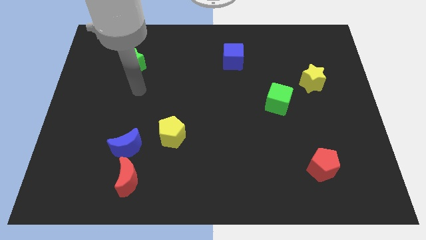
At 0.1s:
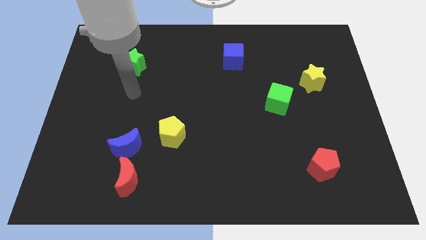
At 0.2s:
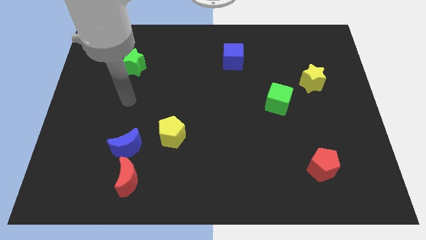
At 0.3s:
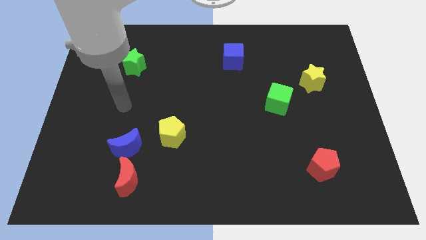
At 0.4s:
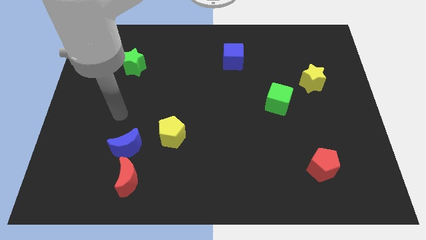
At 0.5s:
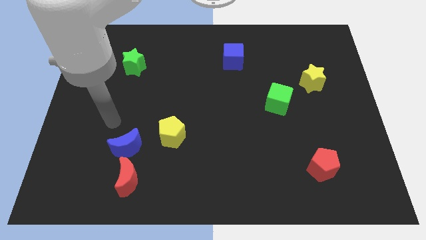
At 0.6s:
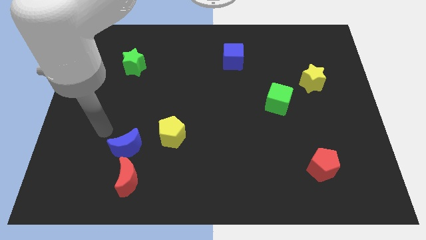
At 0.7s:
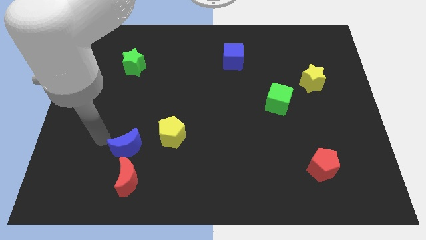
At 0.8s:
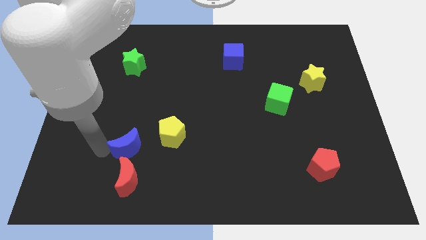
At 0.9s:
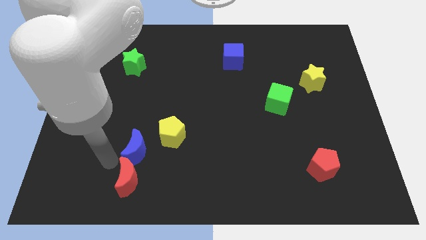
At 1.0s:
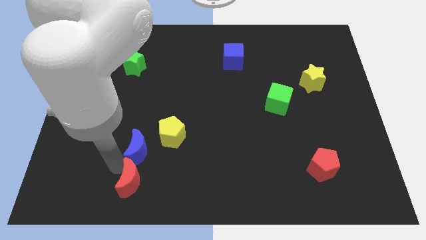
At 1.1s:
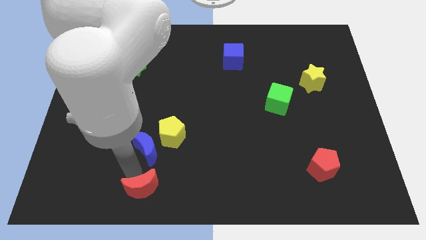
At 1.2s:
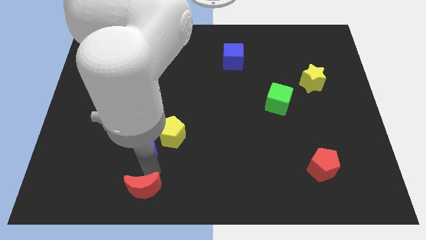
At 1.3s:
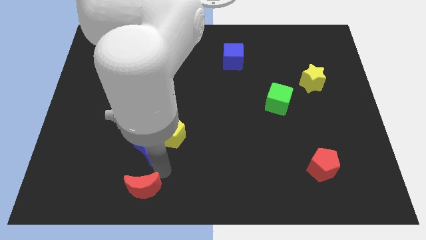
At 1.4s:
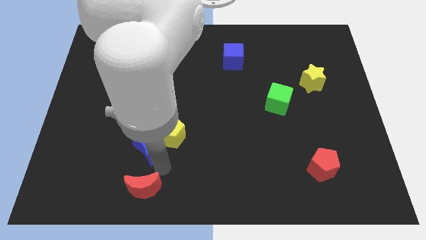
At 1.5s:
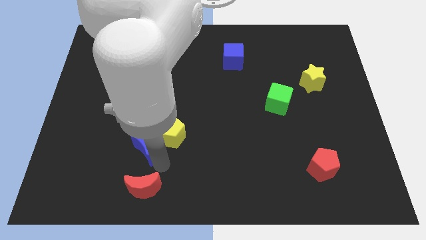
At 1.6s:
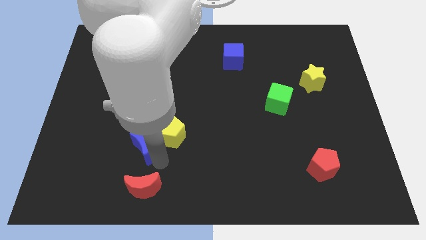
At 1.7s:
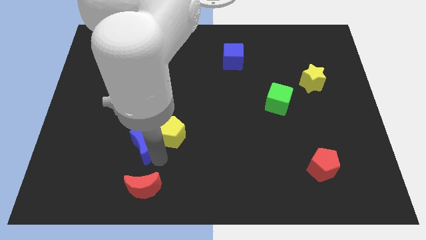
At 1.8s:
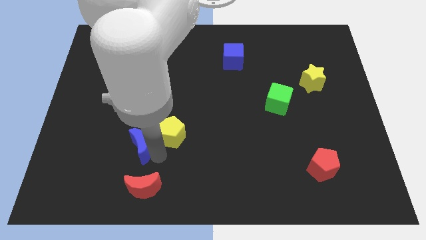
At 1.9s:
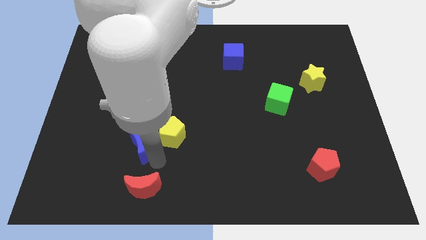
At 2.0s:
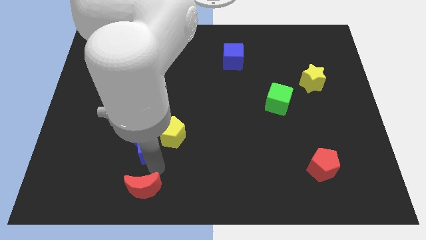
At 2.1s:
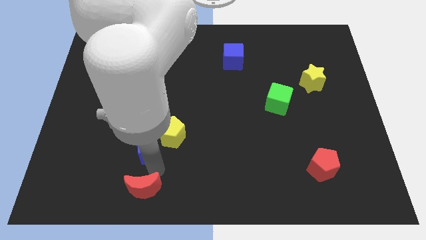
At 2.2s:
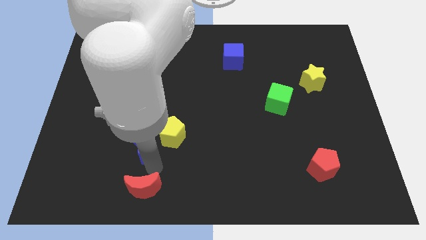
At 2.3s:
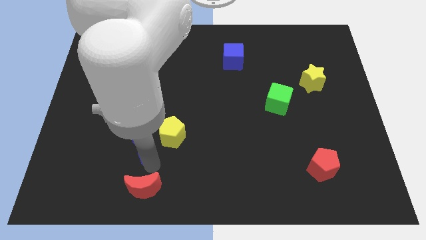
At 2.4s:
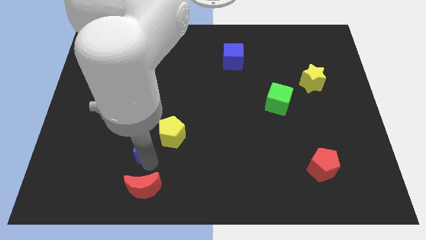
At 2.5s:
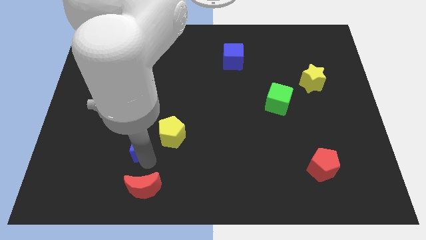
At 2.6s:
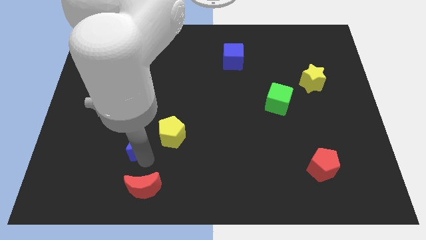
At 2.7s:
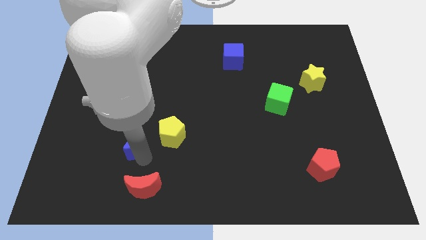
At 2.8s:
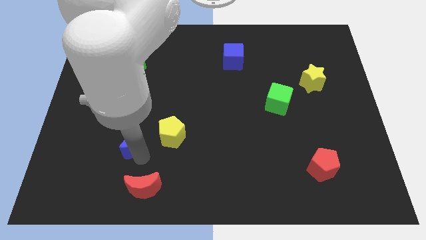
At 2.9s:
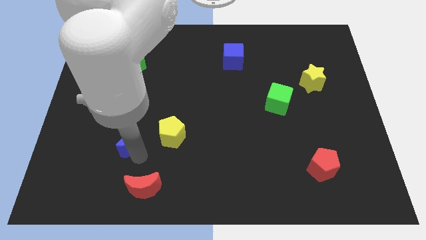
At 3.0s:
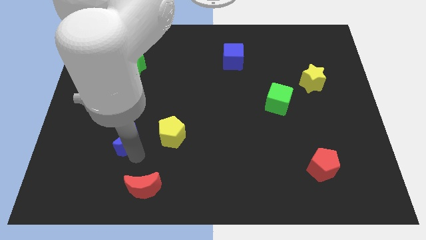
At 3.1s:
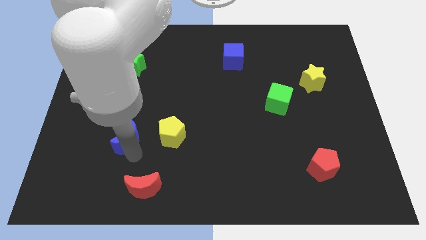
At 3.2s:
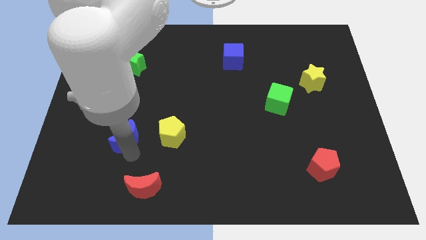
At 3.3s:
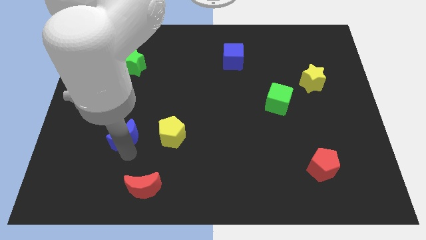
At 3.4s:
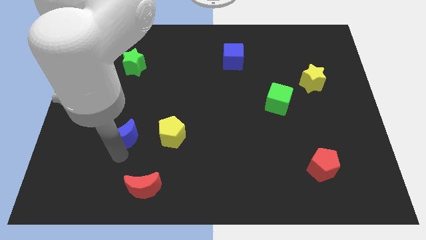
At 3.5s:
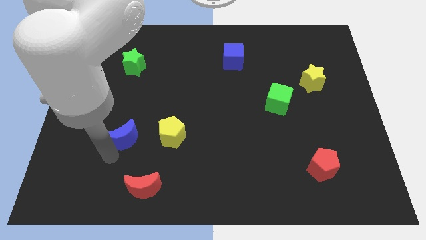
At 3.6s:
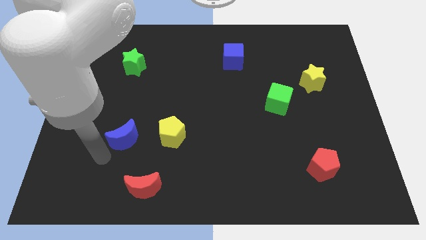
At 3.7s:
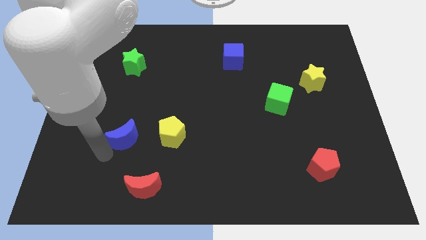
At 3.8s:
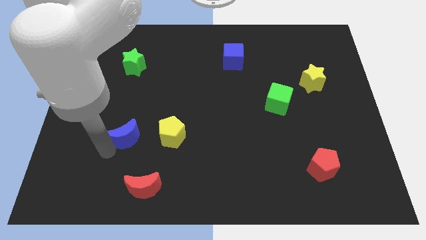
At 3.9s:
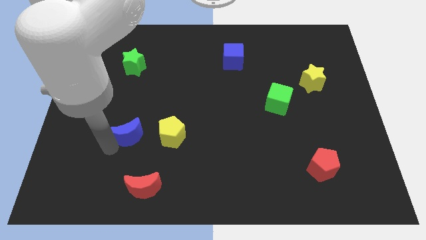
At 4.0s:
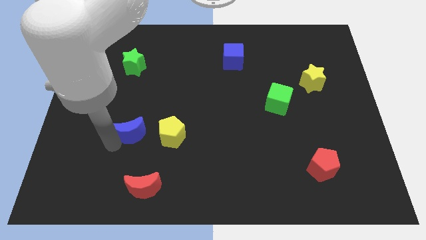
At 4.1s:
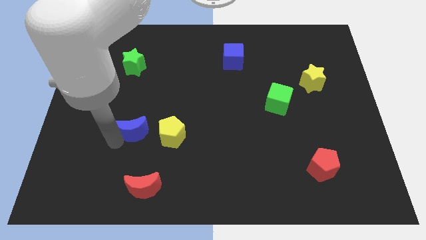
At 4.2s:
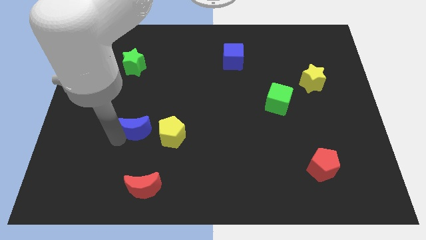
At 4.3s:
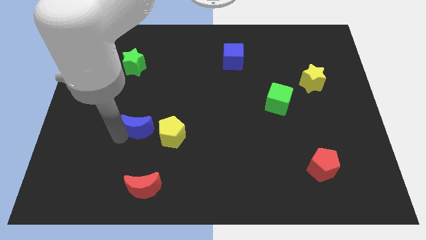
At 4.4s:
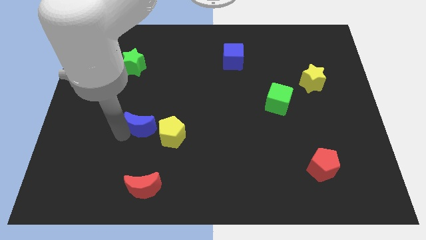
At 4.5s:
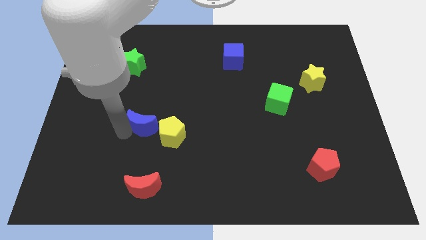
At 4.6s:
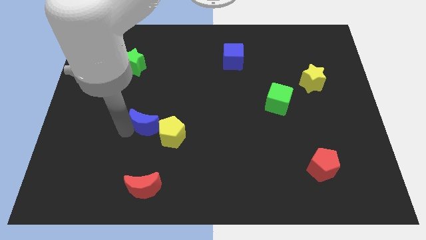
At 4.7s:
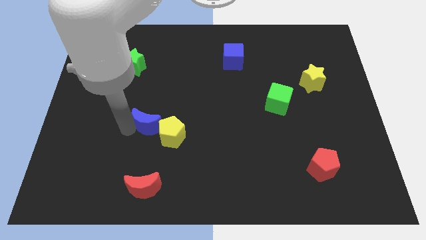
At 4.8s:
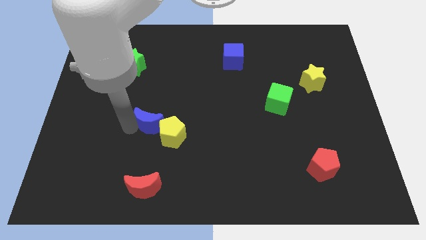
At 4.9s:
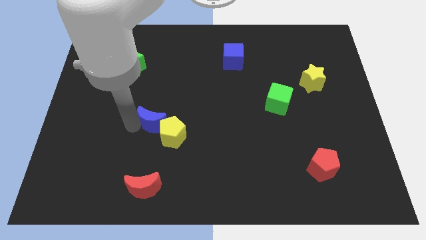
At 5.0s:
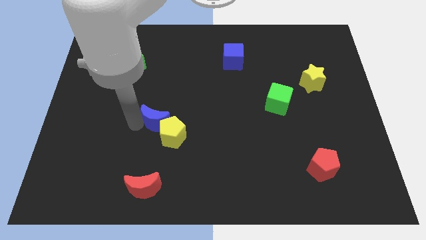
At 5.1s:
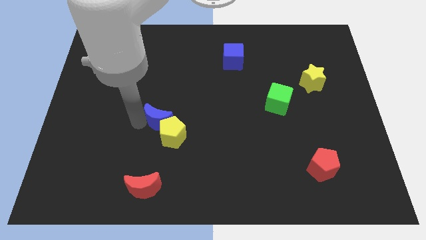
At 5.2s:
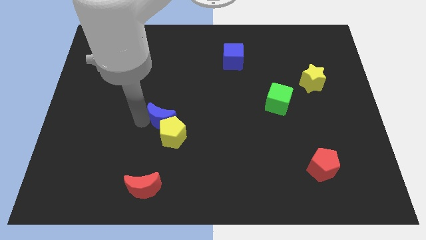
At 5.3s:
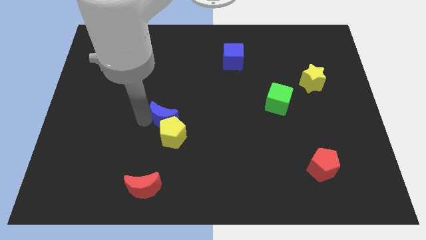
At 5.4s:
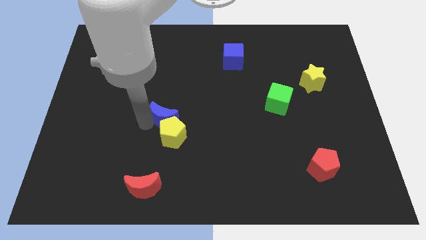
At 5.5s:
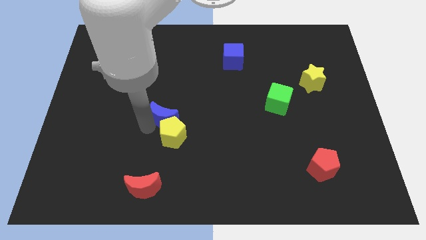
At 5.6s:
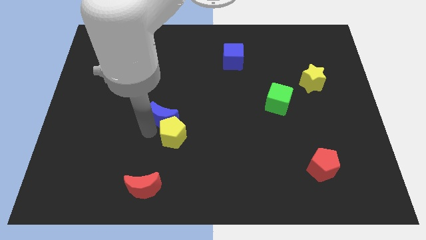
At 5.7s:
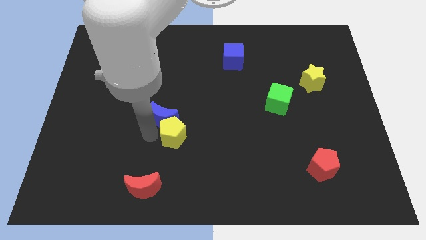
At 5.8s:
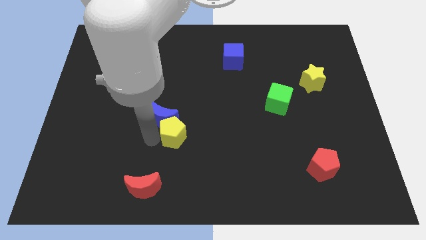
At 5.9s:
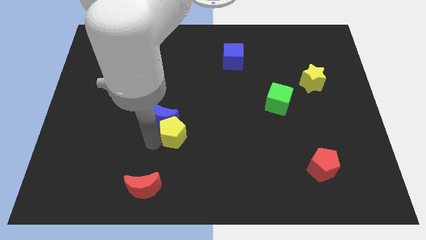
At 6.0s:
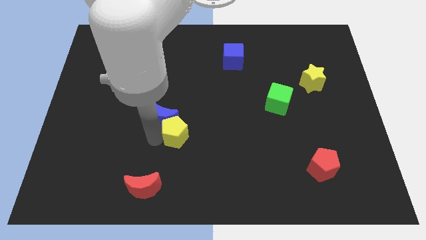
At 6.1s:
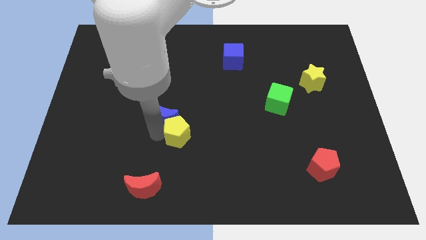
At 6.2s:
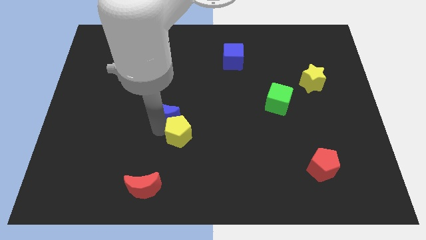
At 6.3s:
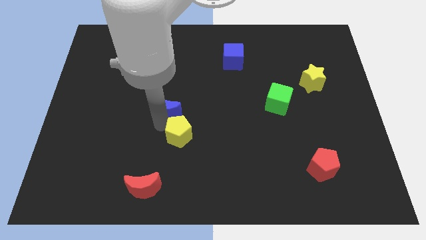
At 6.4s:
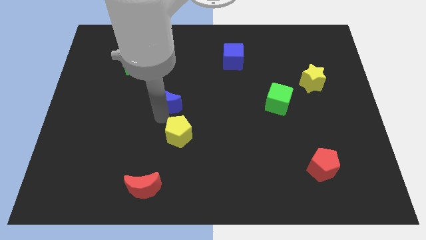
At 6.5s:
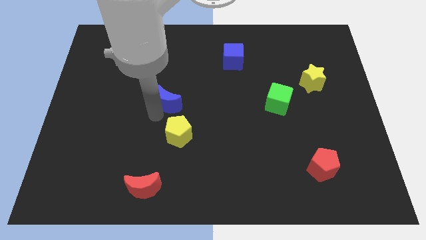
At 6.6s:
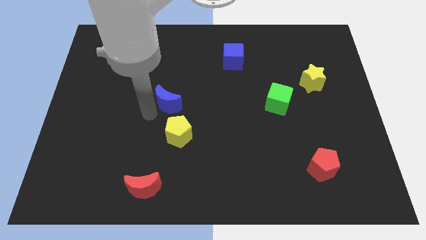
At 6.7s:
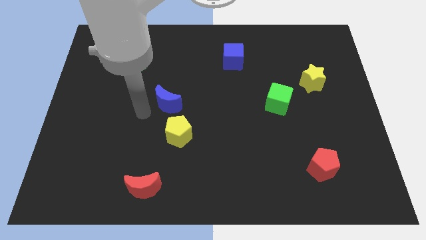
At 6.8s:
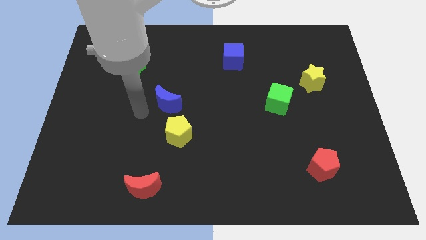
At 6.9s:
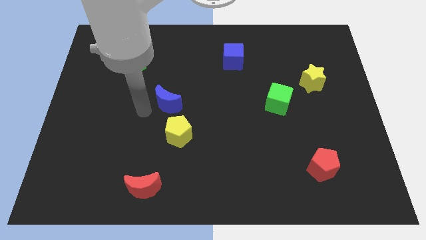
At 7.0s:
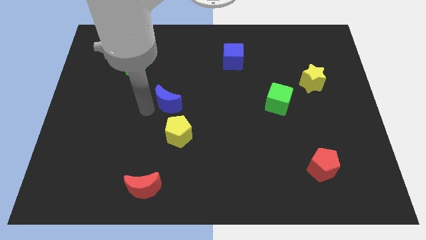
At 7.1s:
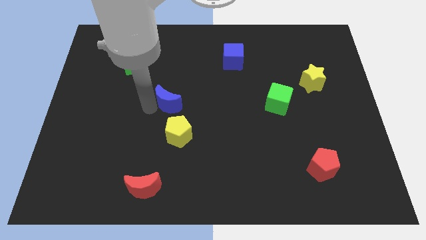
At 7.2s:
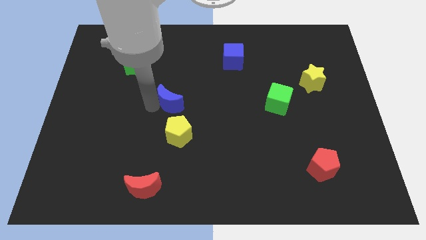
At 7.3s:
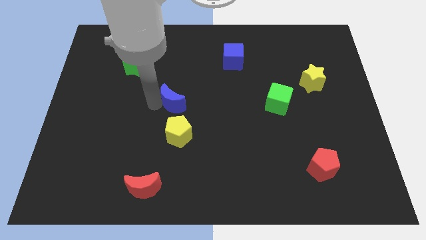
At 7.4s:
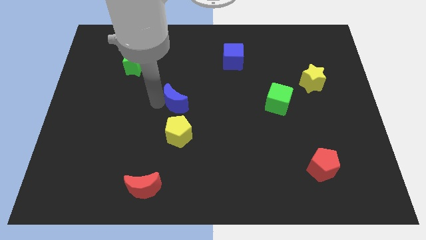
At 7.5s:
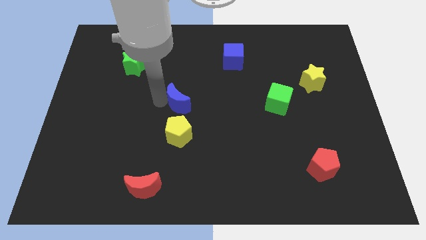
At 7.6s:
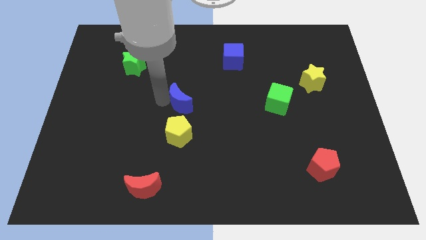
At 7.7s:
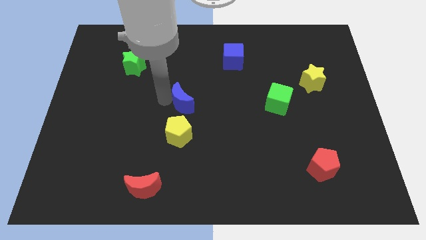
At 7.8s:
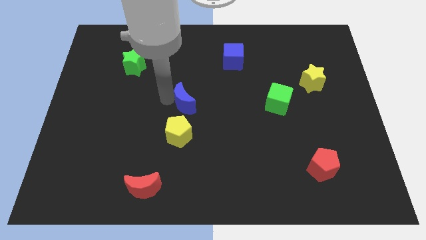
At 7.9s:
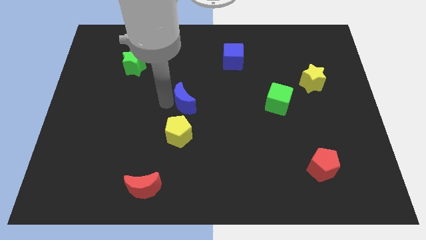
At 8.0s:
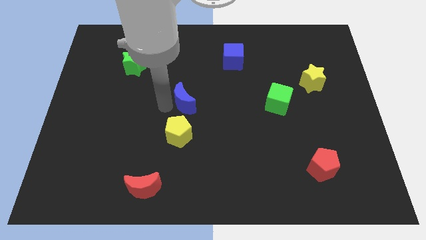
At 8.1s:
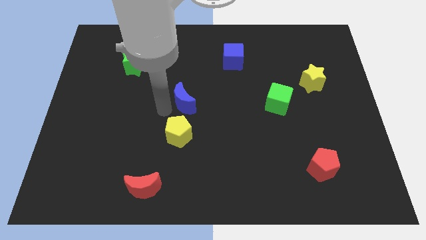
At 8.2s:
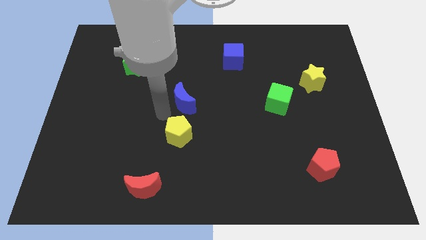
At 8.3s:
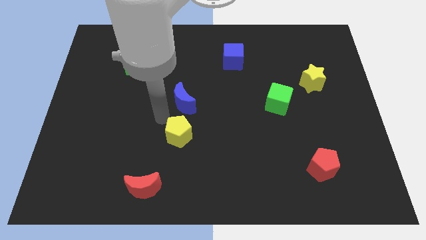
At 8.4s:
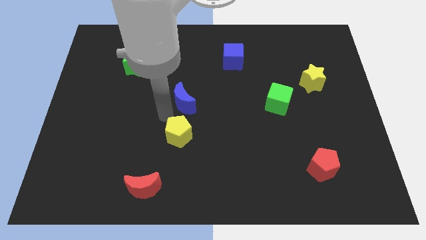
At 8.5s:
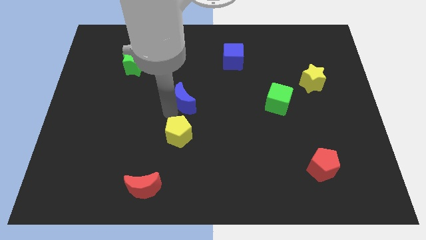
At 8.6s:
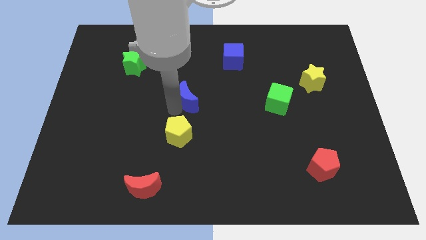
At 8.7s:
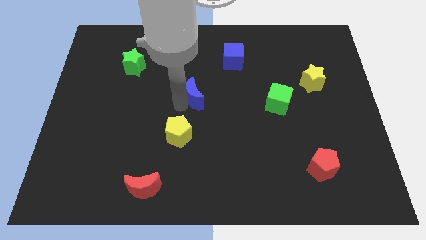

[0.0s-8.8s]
push the blue moon up and right
